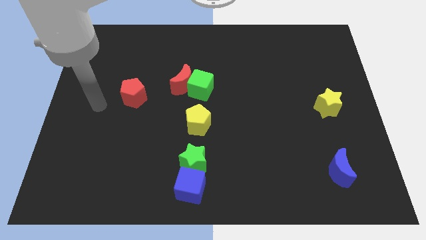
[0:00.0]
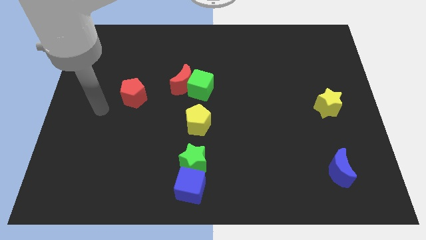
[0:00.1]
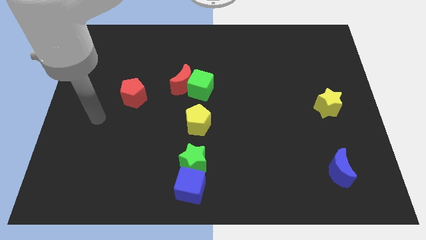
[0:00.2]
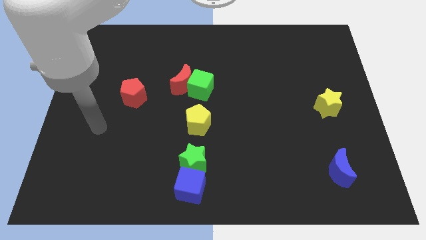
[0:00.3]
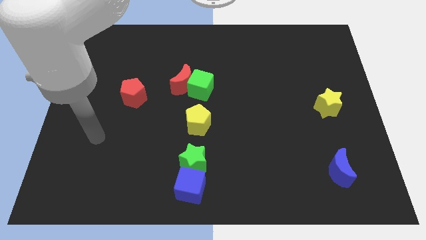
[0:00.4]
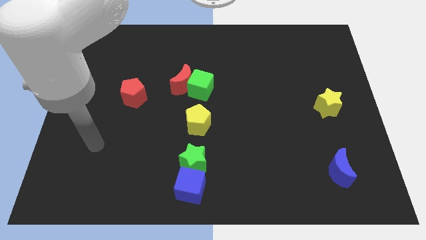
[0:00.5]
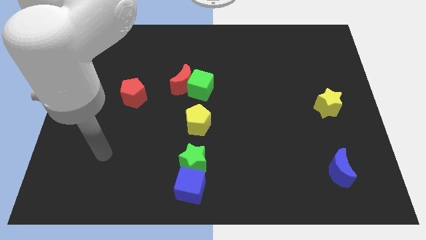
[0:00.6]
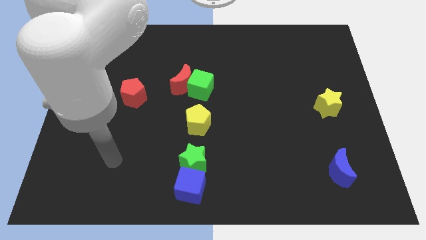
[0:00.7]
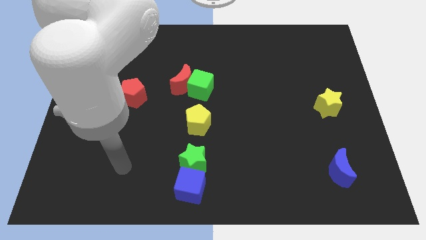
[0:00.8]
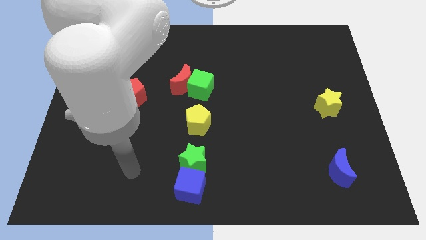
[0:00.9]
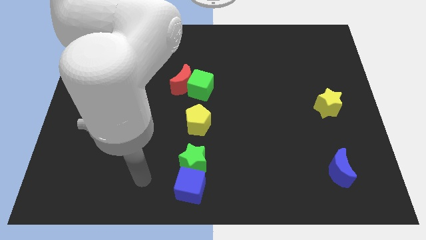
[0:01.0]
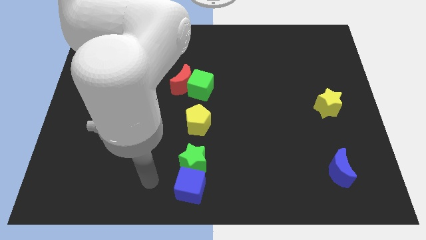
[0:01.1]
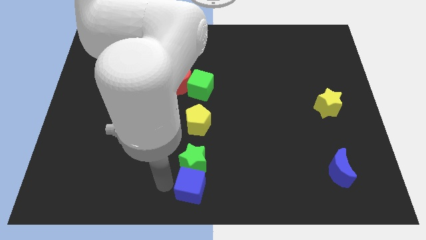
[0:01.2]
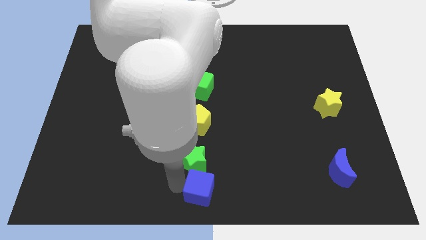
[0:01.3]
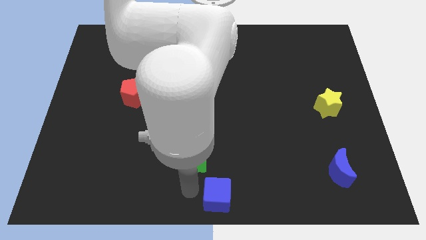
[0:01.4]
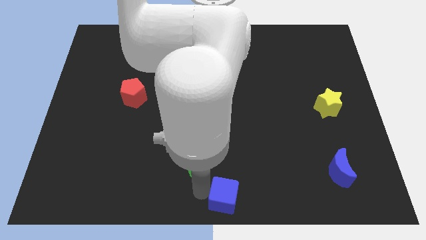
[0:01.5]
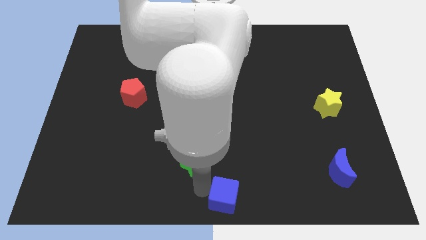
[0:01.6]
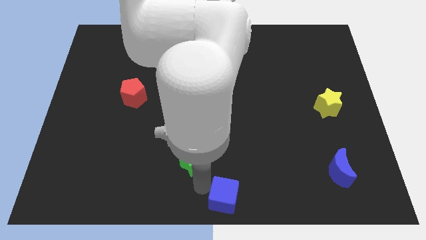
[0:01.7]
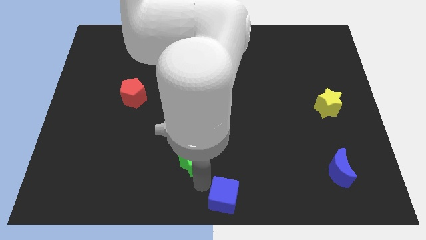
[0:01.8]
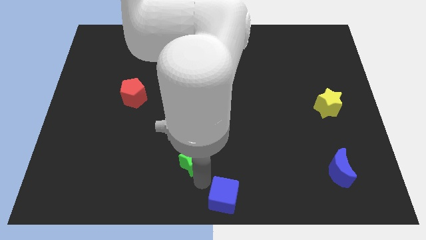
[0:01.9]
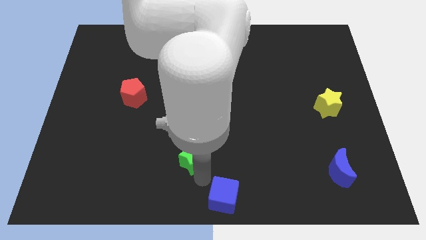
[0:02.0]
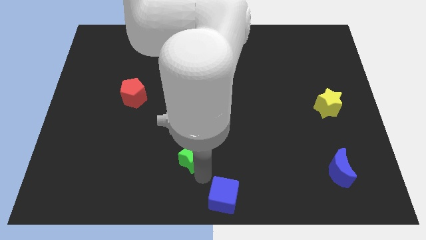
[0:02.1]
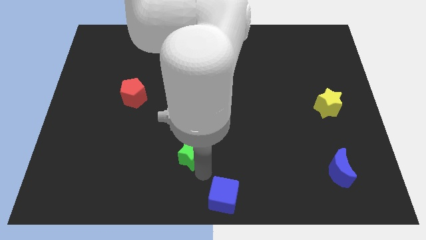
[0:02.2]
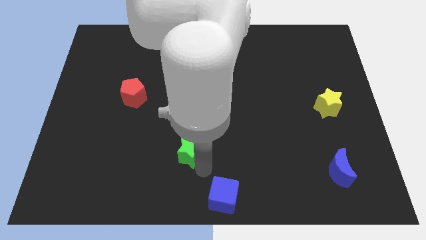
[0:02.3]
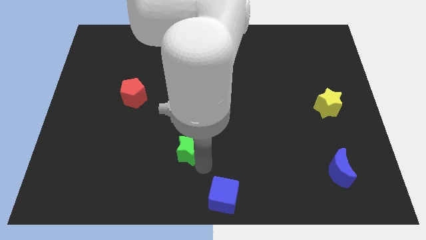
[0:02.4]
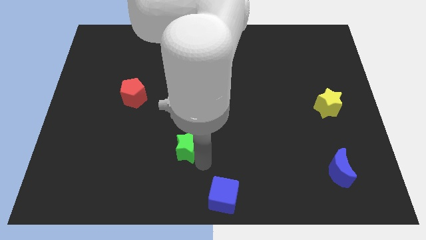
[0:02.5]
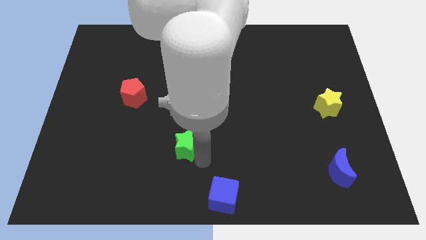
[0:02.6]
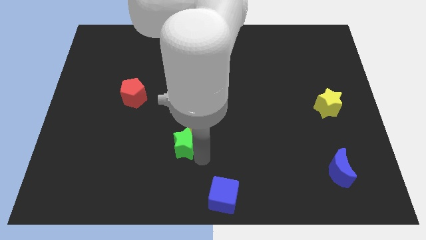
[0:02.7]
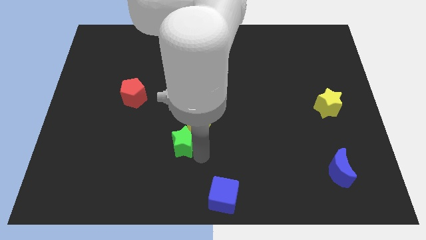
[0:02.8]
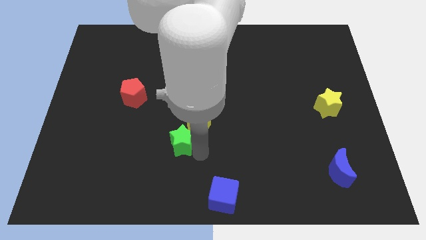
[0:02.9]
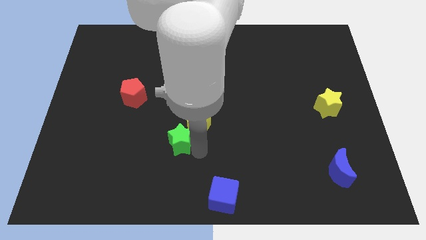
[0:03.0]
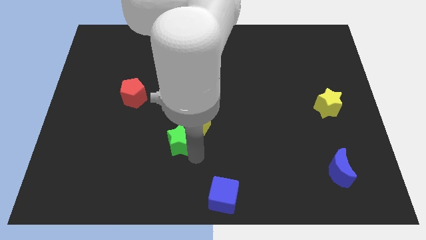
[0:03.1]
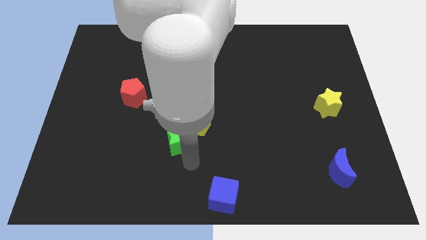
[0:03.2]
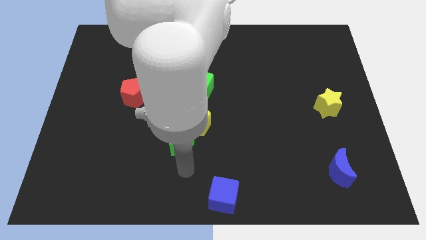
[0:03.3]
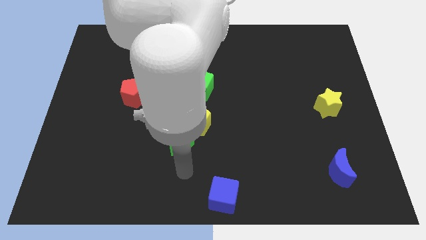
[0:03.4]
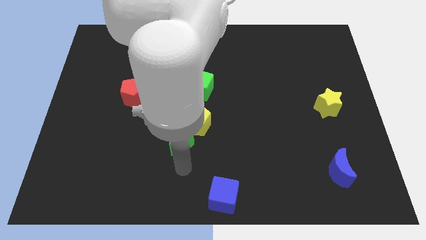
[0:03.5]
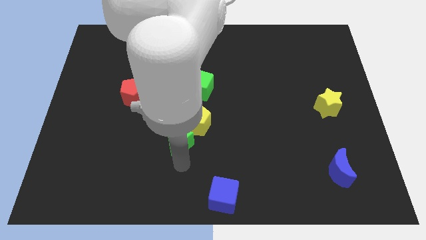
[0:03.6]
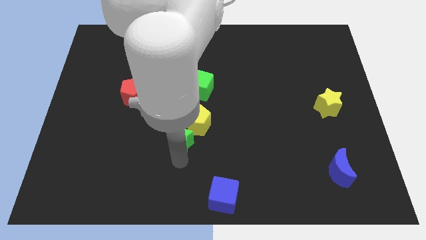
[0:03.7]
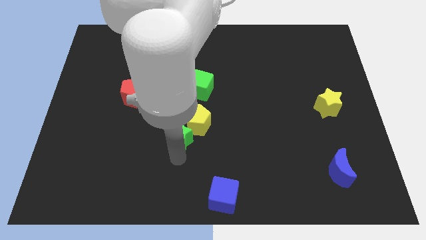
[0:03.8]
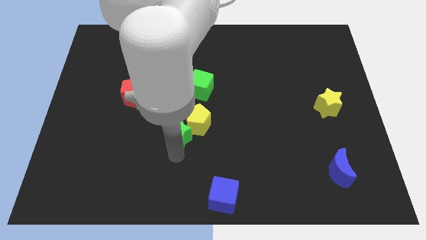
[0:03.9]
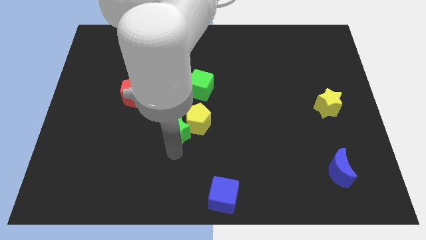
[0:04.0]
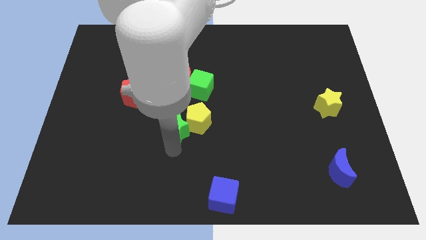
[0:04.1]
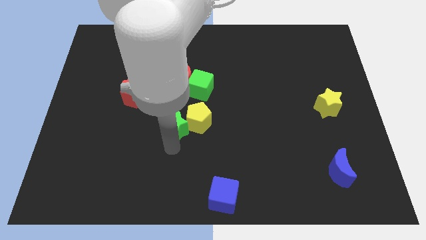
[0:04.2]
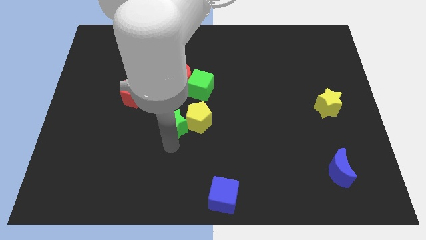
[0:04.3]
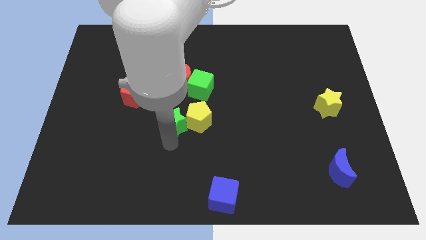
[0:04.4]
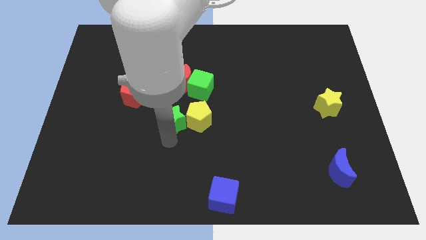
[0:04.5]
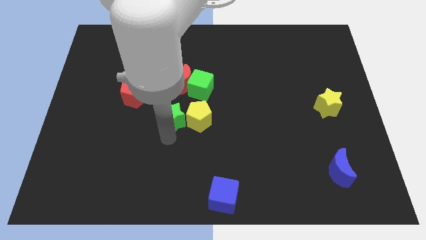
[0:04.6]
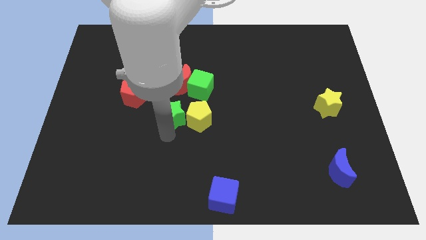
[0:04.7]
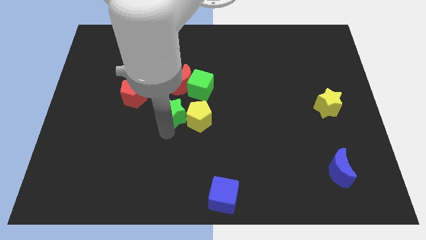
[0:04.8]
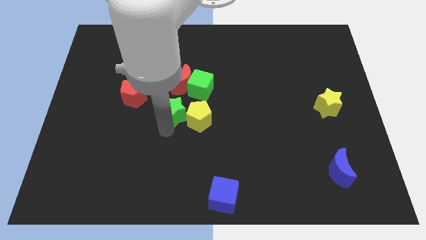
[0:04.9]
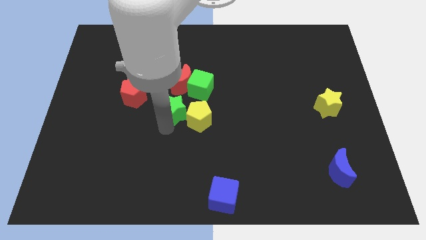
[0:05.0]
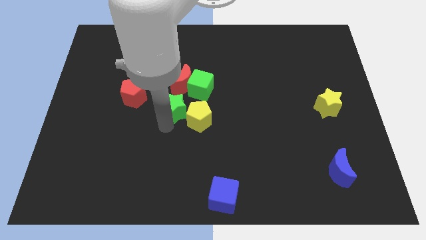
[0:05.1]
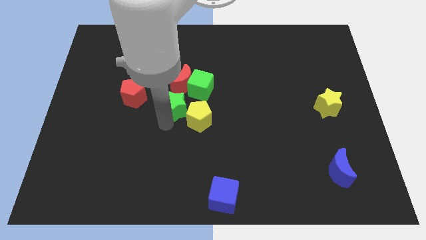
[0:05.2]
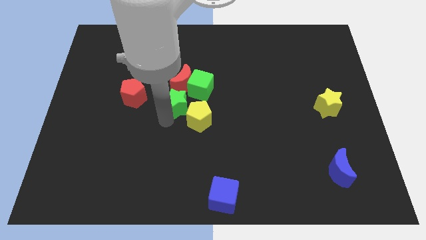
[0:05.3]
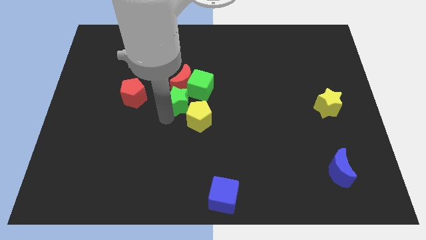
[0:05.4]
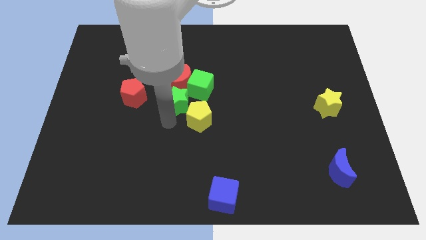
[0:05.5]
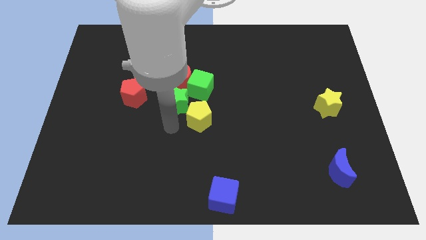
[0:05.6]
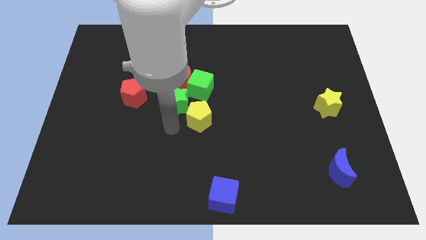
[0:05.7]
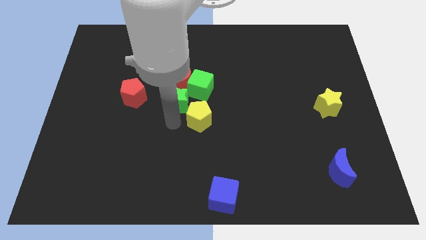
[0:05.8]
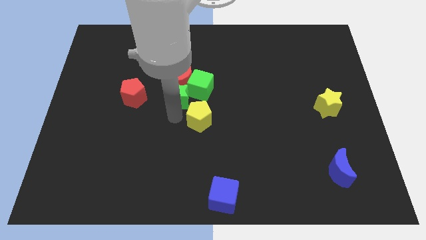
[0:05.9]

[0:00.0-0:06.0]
move the green star towards the red moon
